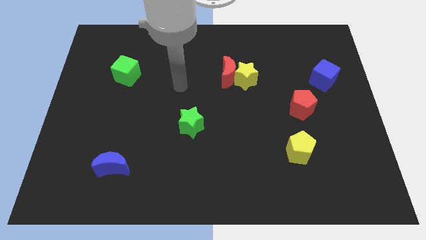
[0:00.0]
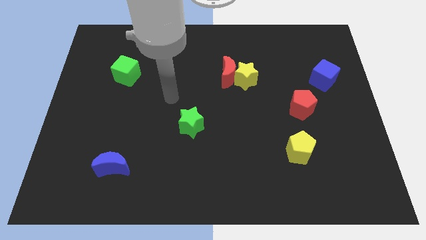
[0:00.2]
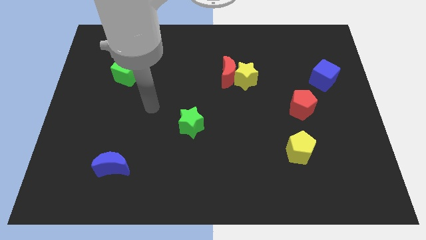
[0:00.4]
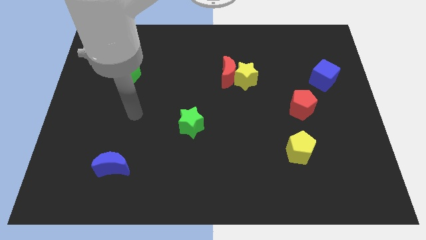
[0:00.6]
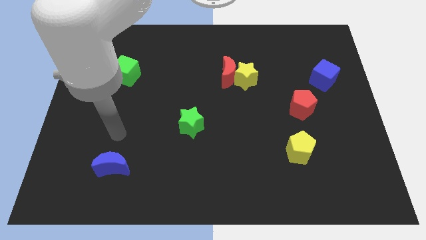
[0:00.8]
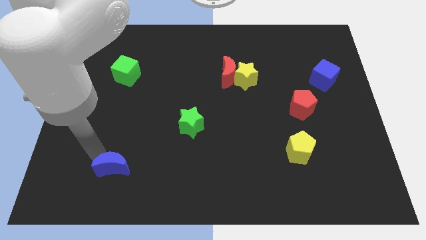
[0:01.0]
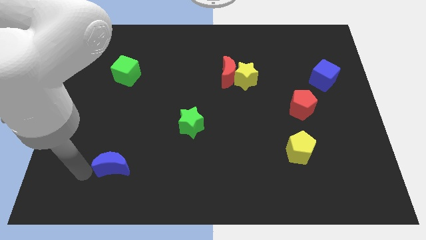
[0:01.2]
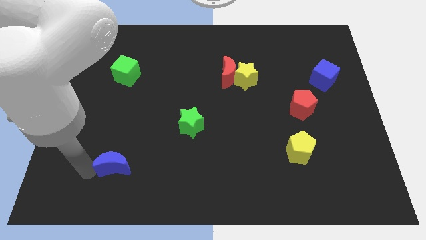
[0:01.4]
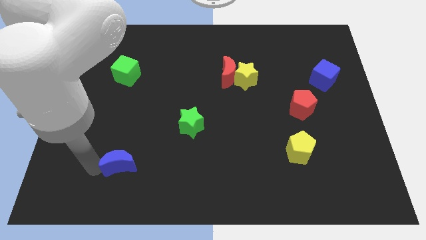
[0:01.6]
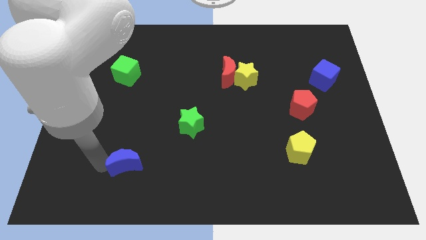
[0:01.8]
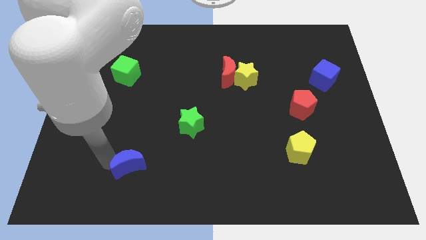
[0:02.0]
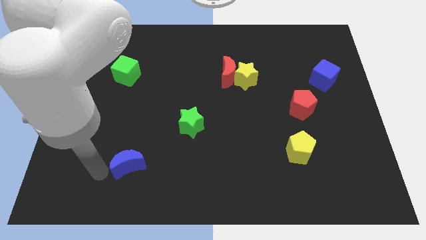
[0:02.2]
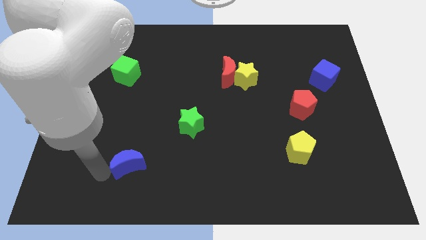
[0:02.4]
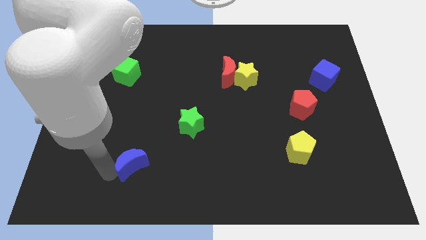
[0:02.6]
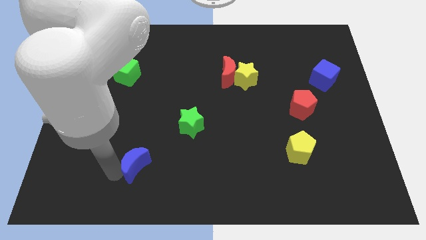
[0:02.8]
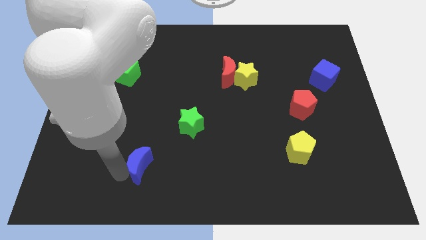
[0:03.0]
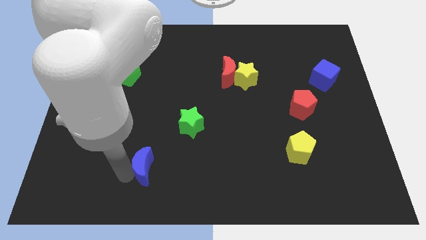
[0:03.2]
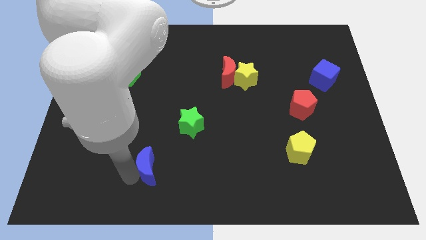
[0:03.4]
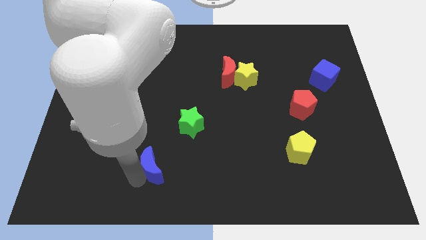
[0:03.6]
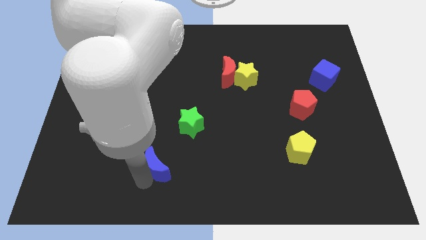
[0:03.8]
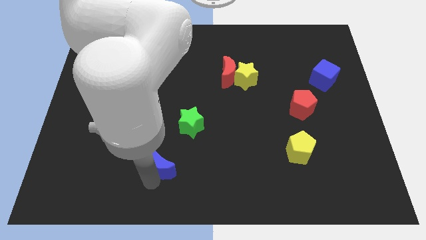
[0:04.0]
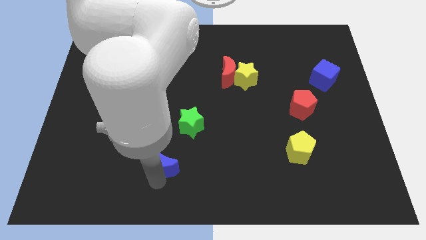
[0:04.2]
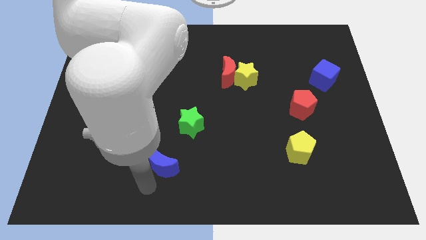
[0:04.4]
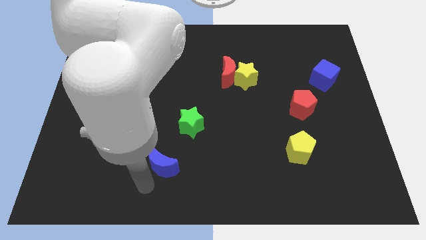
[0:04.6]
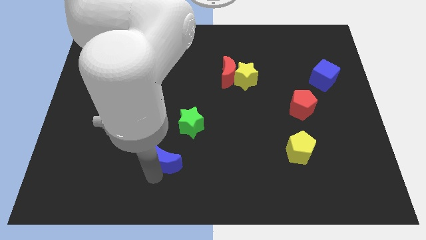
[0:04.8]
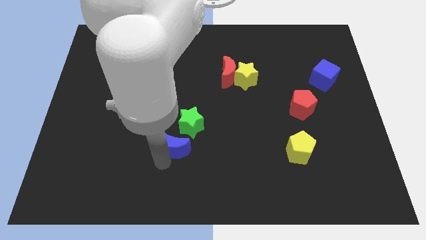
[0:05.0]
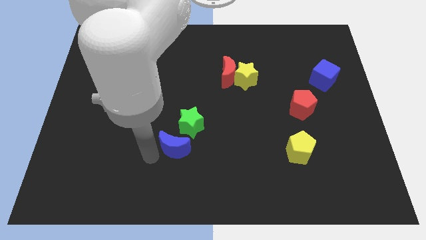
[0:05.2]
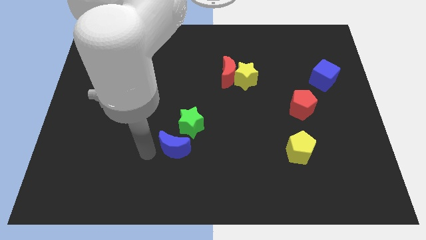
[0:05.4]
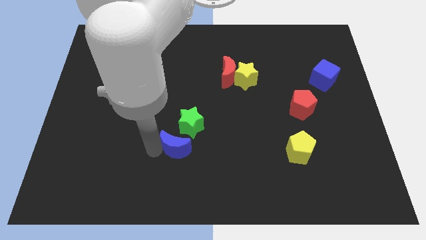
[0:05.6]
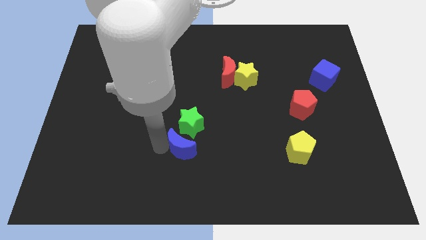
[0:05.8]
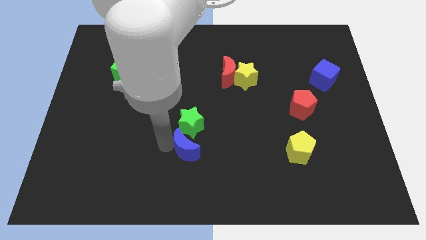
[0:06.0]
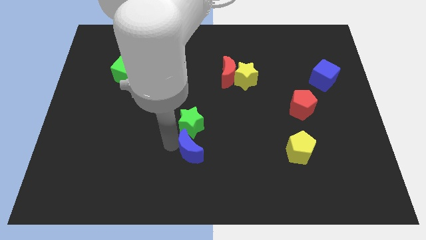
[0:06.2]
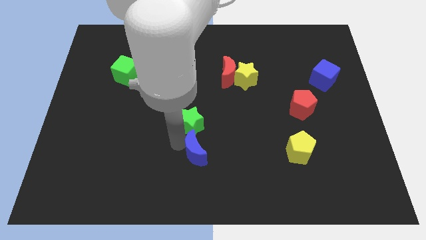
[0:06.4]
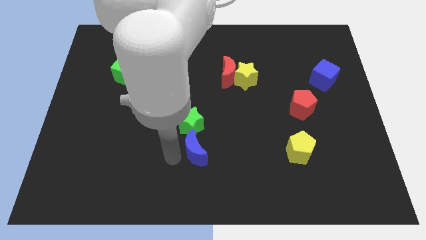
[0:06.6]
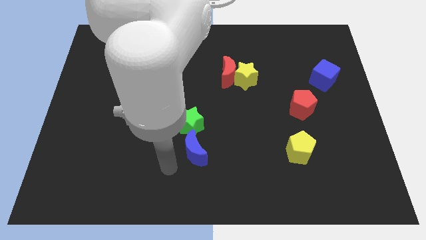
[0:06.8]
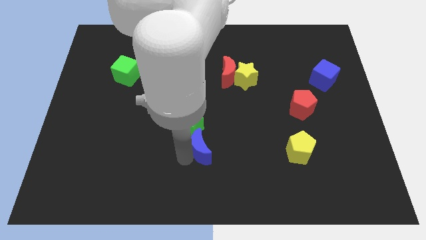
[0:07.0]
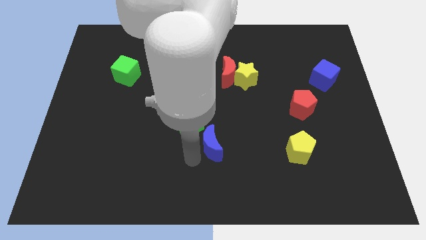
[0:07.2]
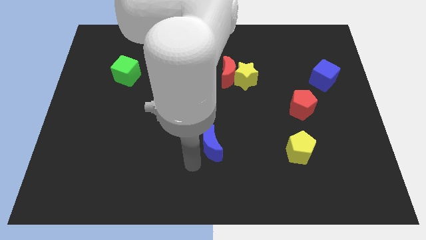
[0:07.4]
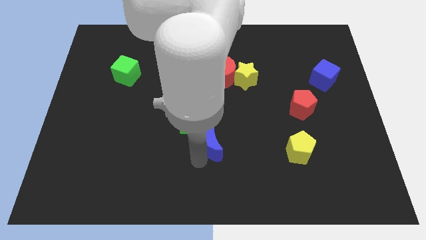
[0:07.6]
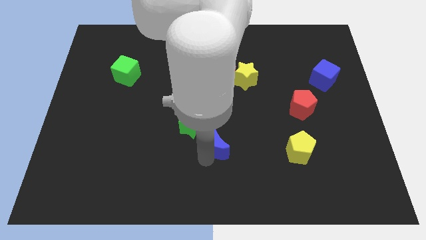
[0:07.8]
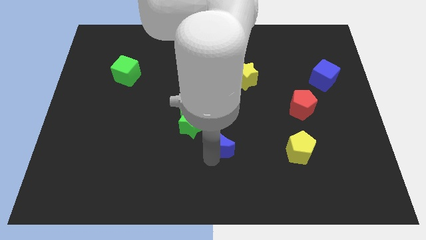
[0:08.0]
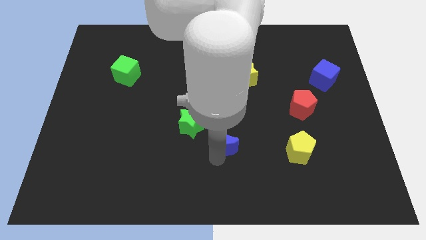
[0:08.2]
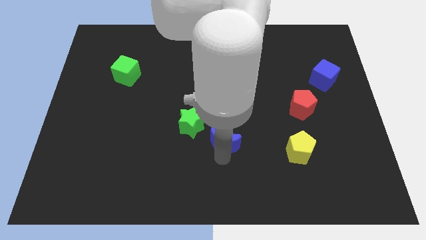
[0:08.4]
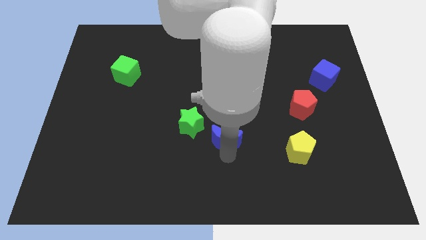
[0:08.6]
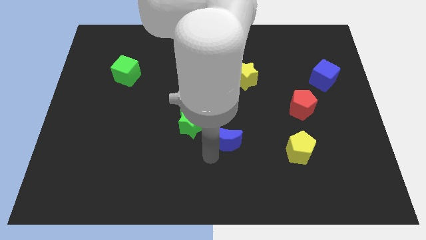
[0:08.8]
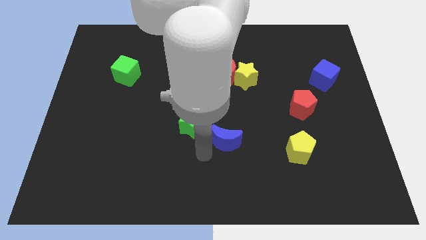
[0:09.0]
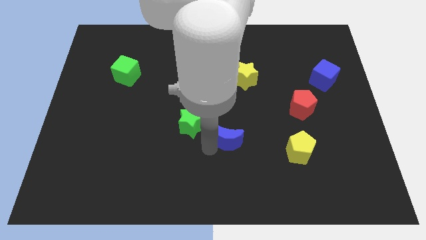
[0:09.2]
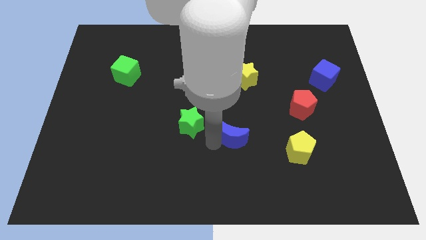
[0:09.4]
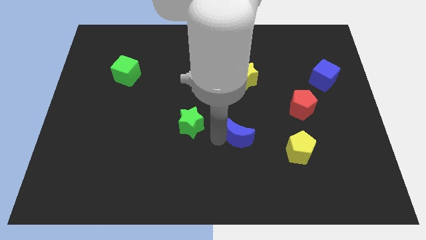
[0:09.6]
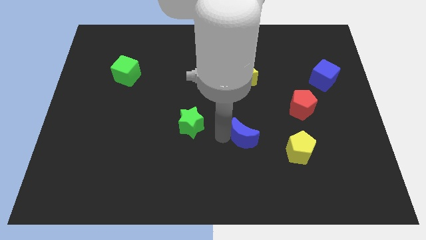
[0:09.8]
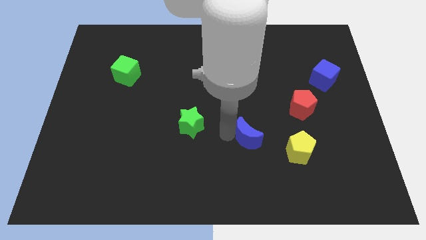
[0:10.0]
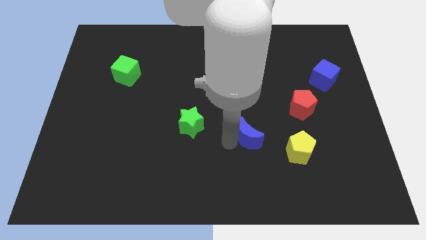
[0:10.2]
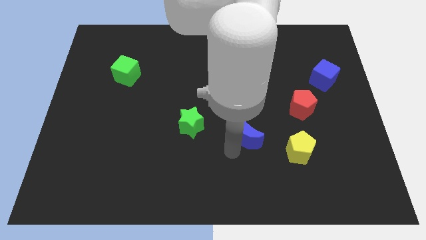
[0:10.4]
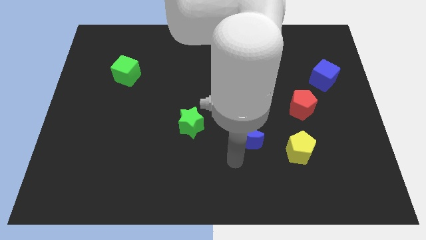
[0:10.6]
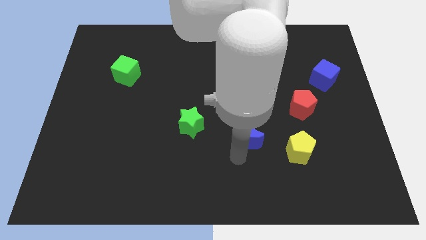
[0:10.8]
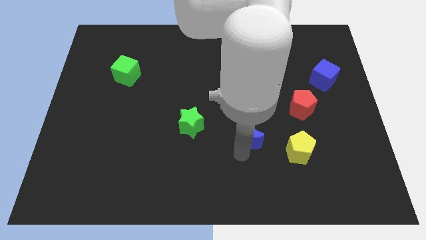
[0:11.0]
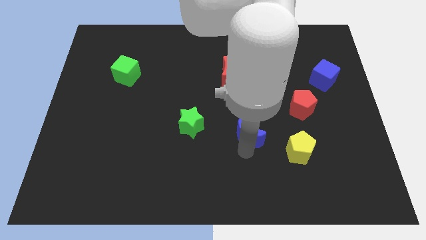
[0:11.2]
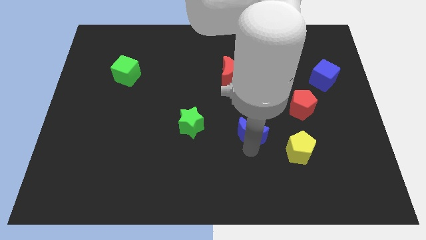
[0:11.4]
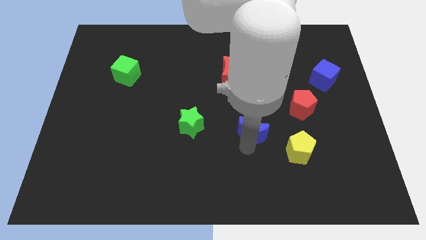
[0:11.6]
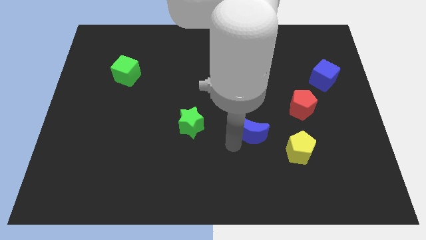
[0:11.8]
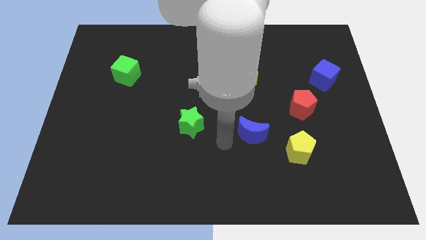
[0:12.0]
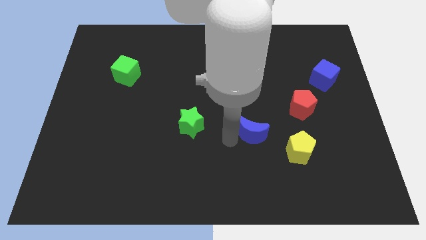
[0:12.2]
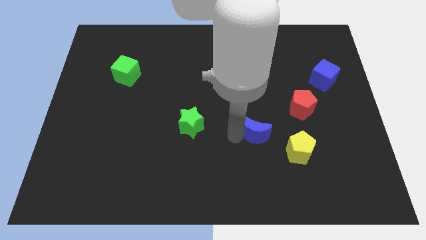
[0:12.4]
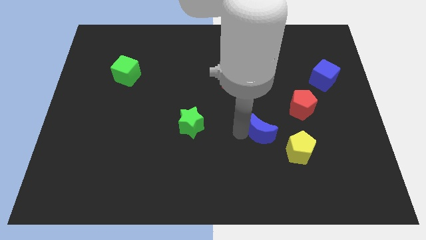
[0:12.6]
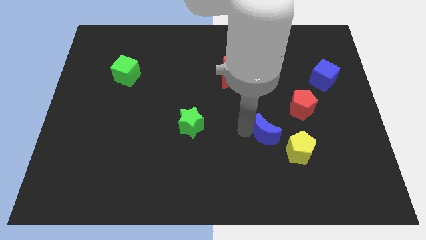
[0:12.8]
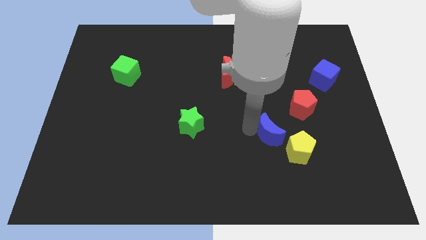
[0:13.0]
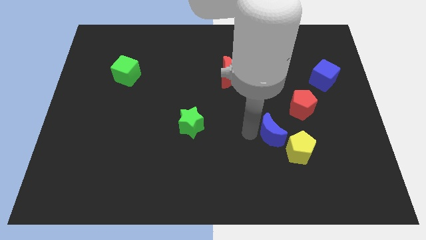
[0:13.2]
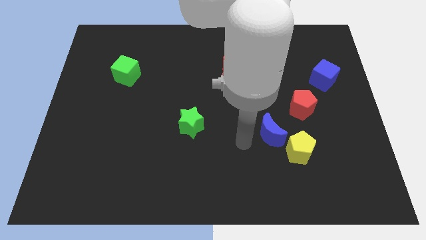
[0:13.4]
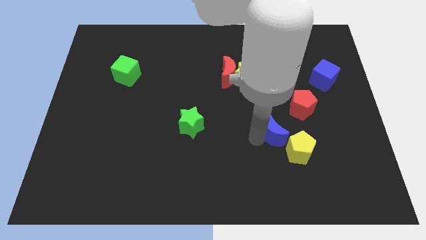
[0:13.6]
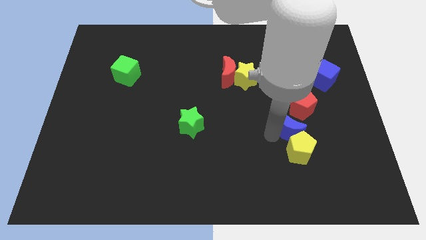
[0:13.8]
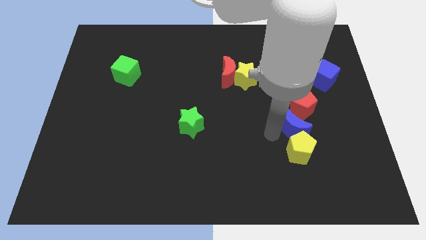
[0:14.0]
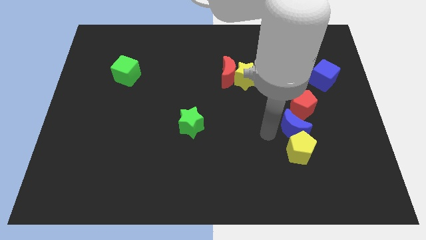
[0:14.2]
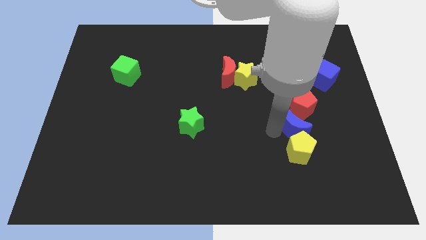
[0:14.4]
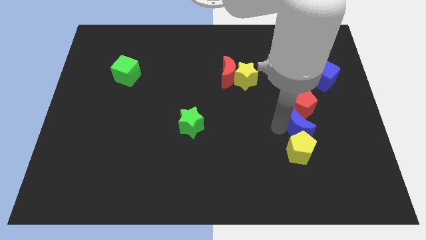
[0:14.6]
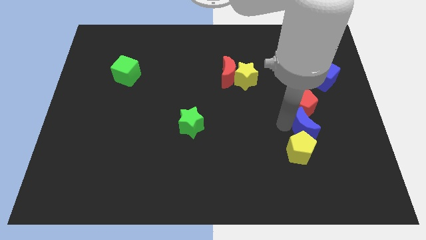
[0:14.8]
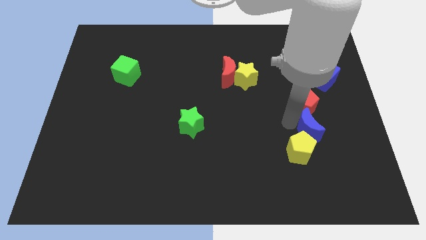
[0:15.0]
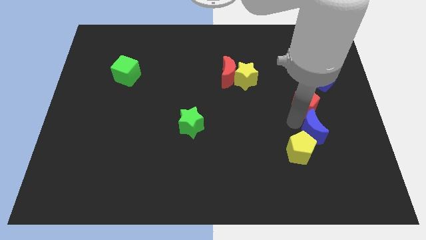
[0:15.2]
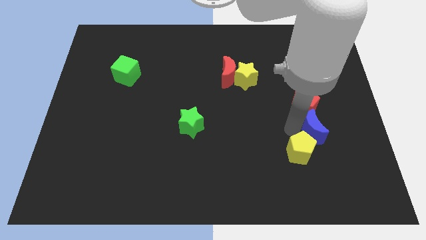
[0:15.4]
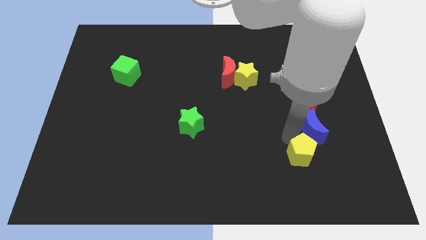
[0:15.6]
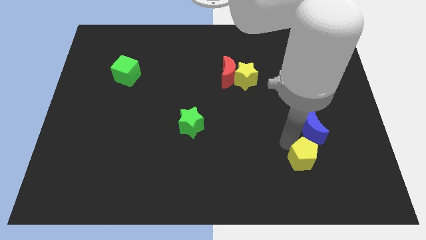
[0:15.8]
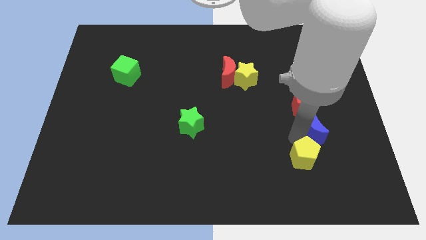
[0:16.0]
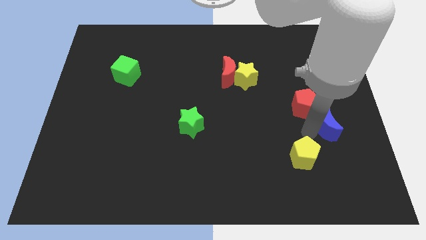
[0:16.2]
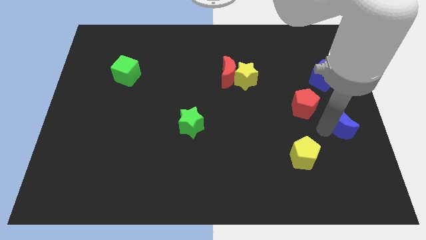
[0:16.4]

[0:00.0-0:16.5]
push the blue moon to the right side
